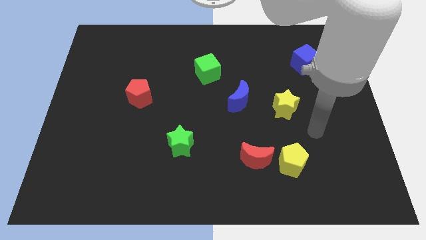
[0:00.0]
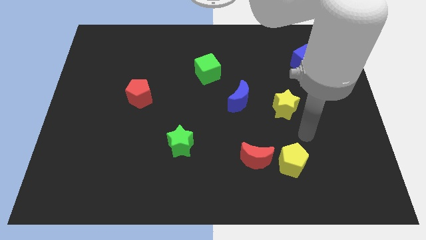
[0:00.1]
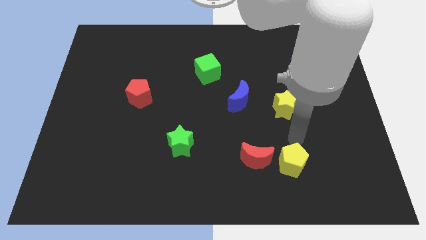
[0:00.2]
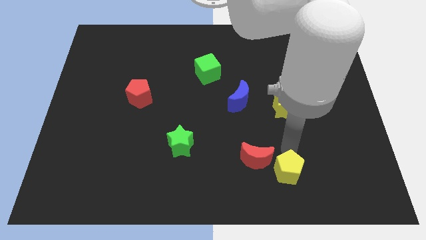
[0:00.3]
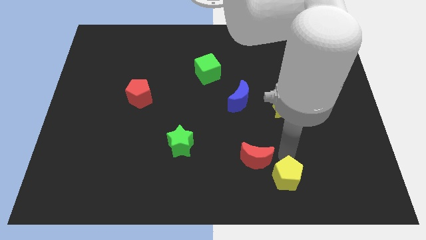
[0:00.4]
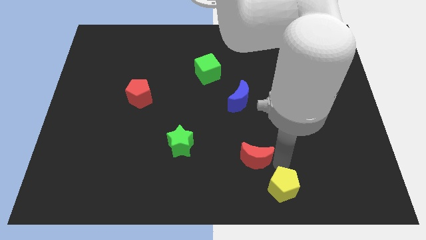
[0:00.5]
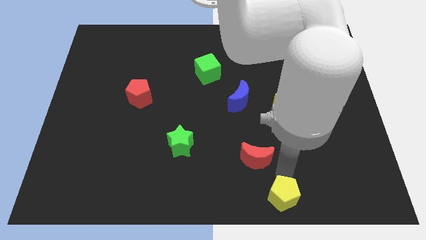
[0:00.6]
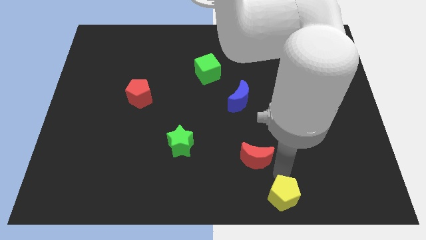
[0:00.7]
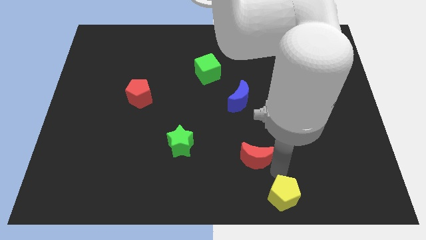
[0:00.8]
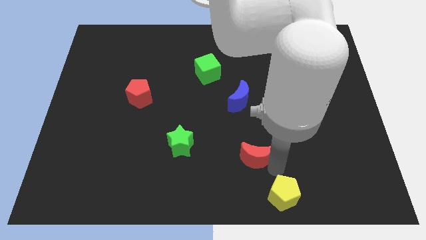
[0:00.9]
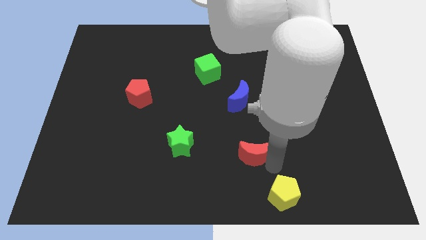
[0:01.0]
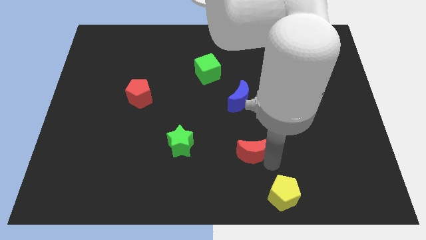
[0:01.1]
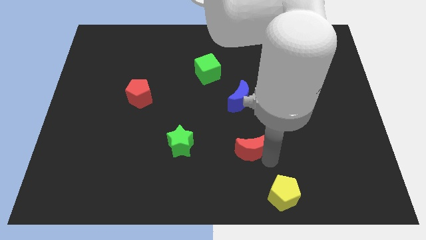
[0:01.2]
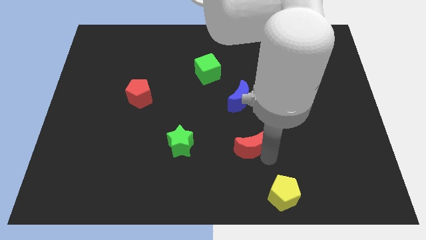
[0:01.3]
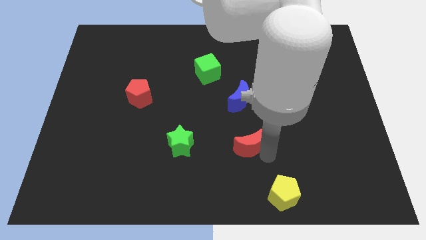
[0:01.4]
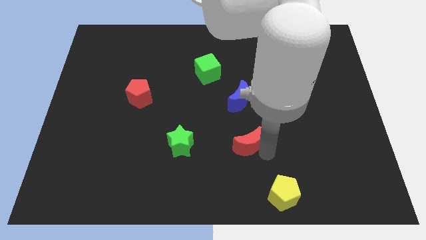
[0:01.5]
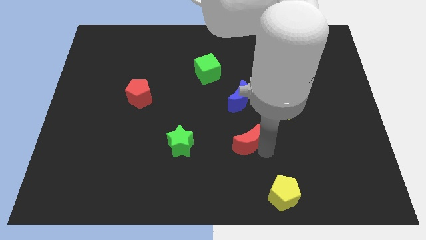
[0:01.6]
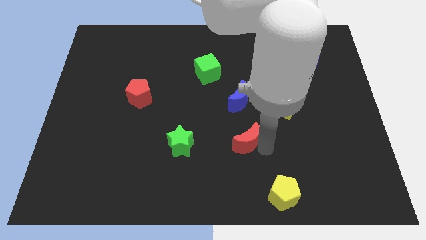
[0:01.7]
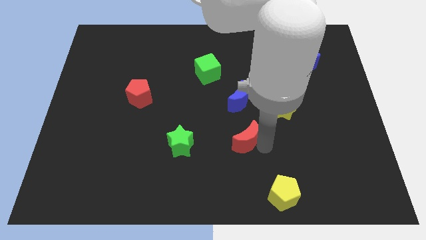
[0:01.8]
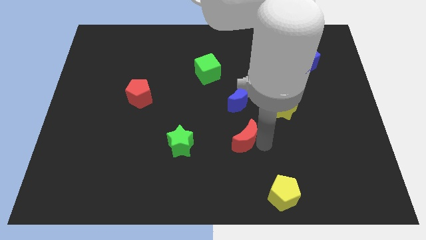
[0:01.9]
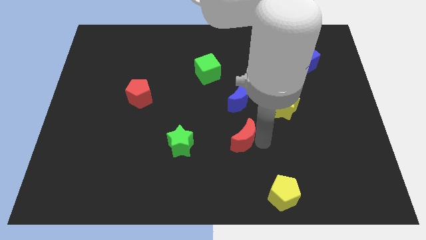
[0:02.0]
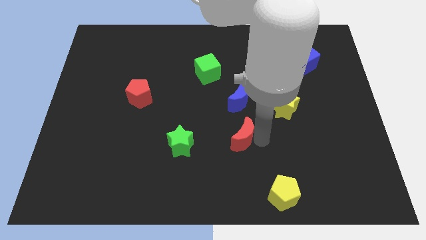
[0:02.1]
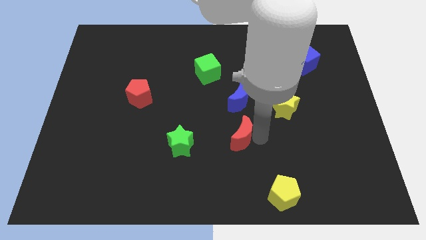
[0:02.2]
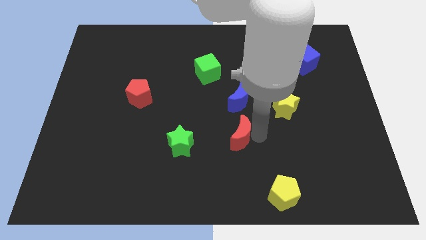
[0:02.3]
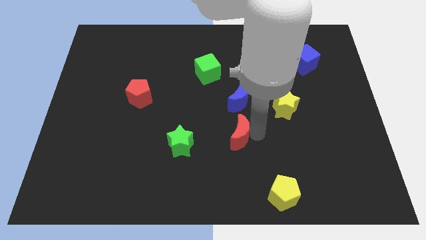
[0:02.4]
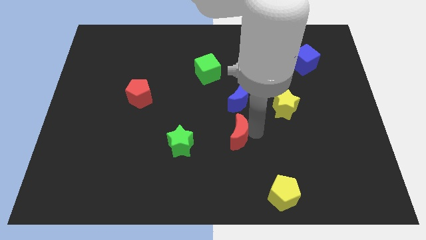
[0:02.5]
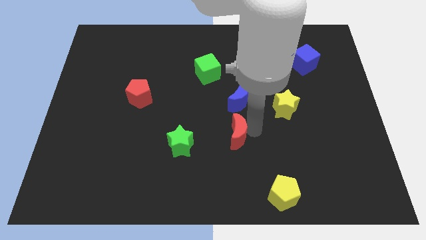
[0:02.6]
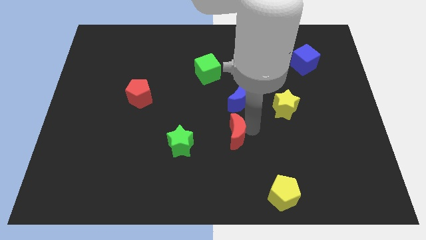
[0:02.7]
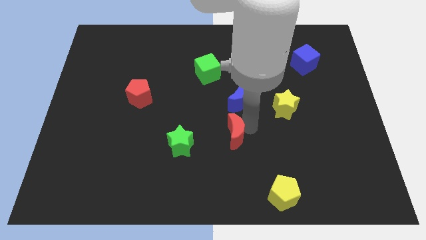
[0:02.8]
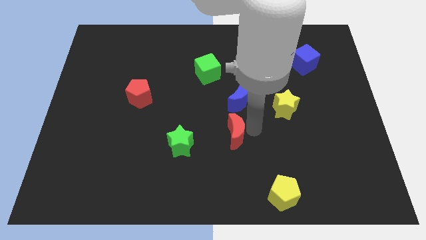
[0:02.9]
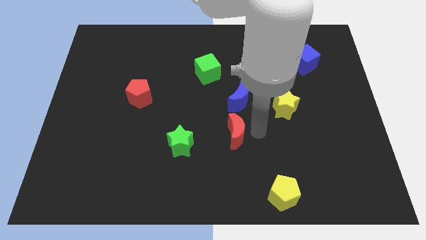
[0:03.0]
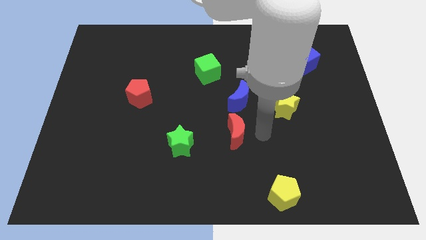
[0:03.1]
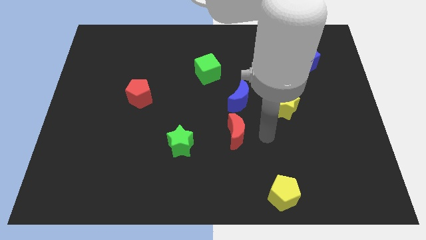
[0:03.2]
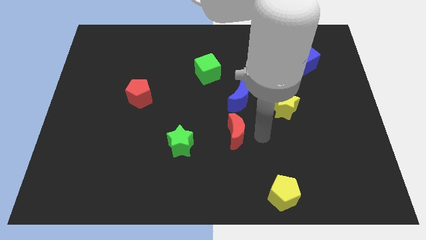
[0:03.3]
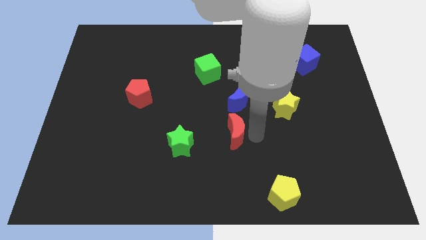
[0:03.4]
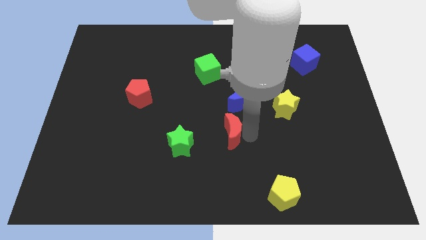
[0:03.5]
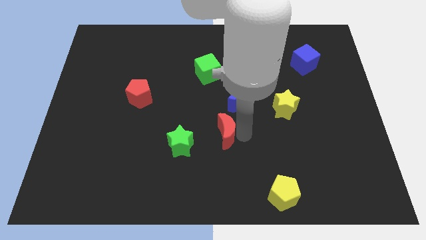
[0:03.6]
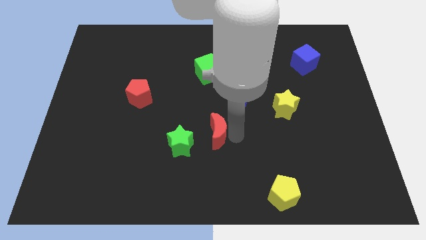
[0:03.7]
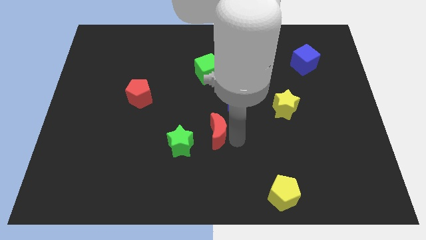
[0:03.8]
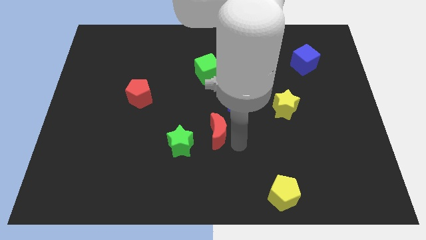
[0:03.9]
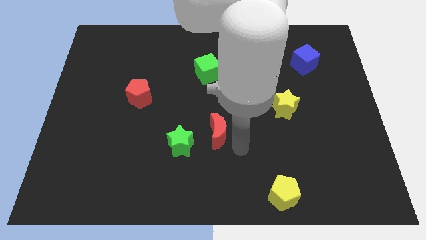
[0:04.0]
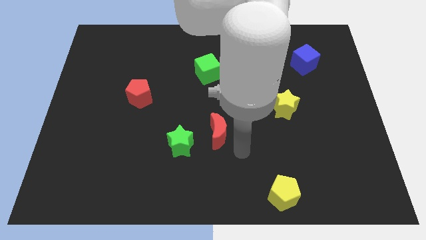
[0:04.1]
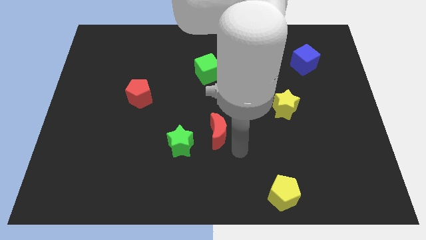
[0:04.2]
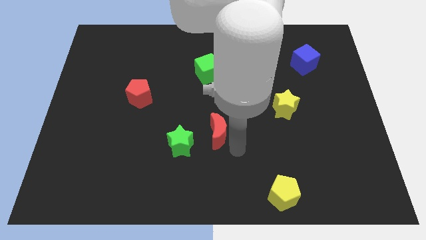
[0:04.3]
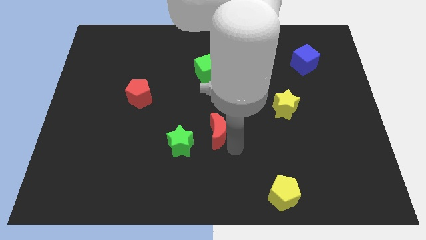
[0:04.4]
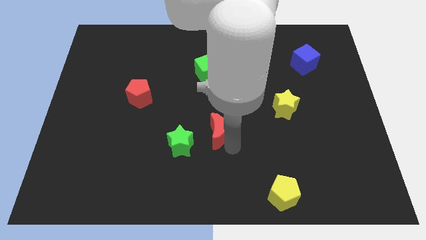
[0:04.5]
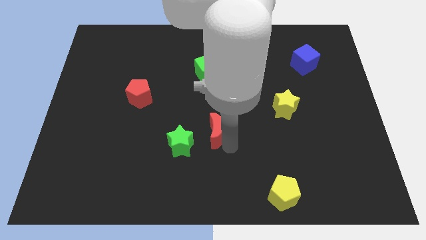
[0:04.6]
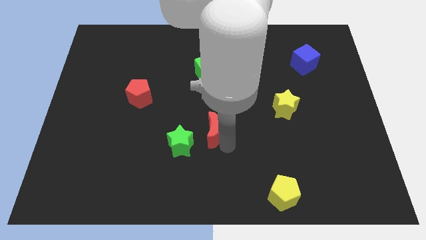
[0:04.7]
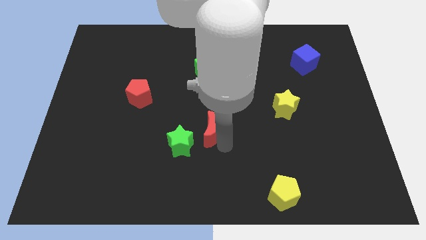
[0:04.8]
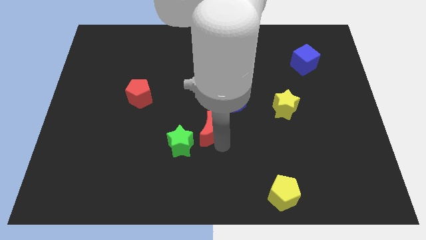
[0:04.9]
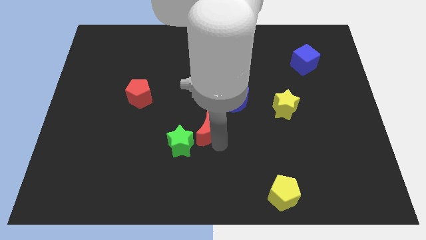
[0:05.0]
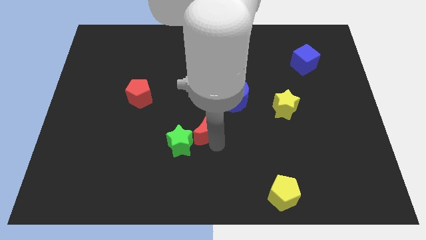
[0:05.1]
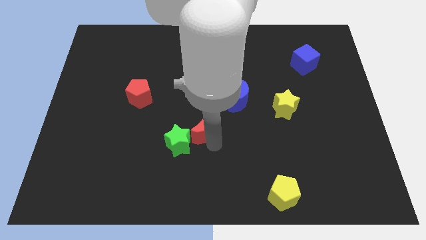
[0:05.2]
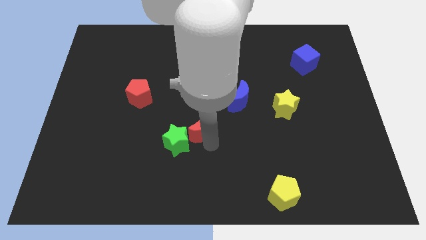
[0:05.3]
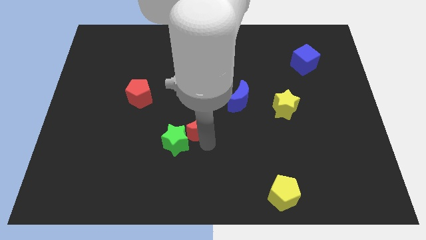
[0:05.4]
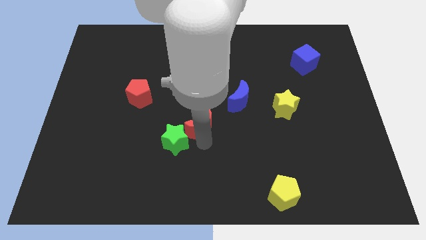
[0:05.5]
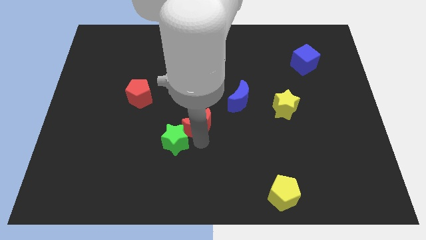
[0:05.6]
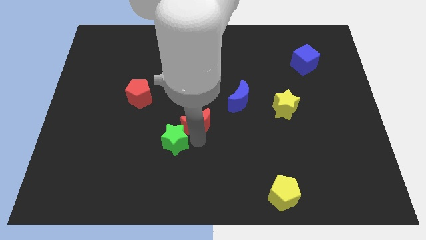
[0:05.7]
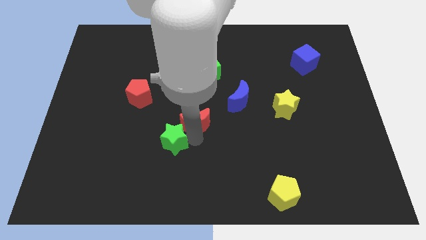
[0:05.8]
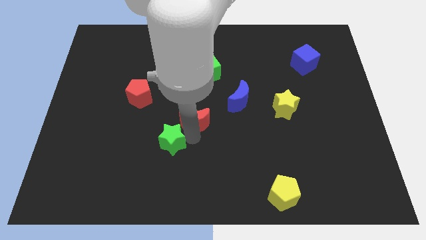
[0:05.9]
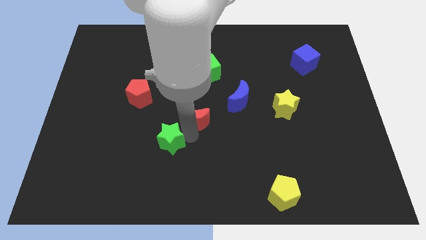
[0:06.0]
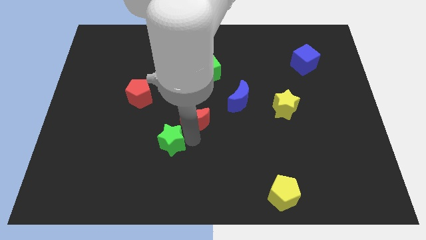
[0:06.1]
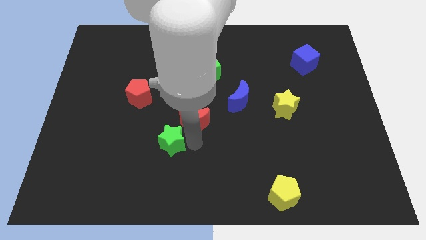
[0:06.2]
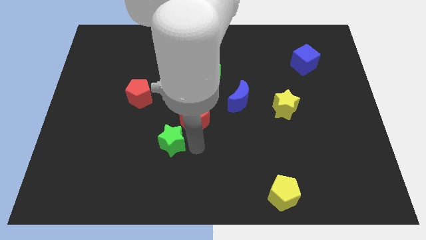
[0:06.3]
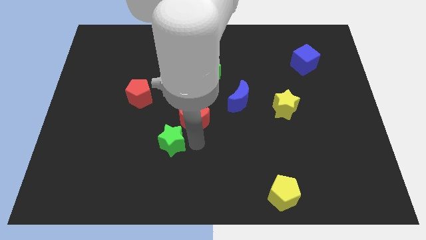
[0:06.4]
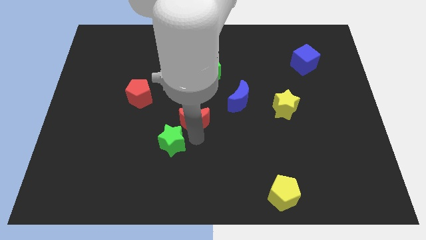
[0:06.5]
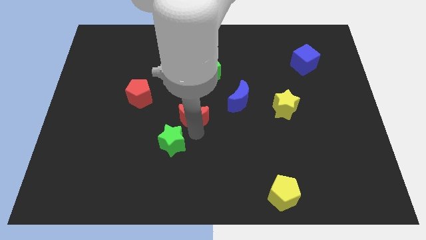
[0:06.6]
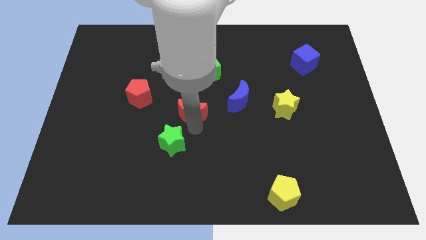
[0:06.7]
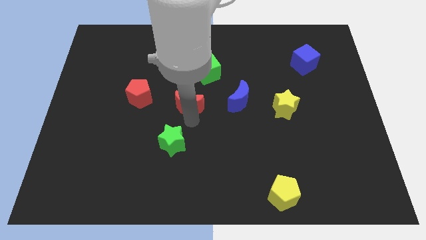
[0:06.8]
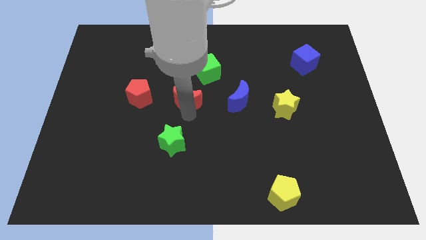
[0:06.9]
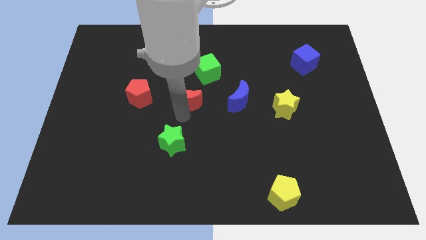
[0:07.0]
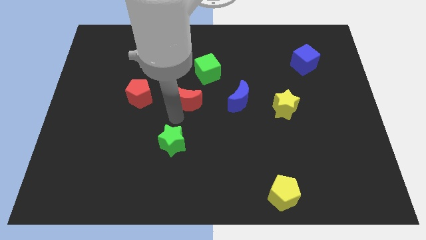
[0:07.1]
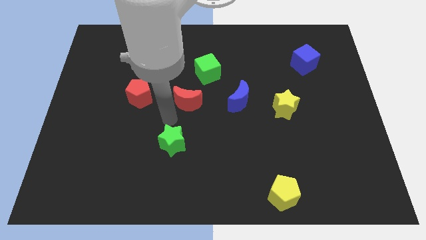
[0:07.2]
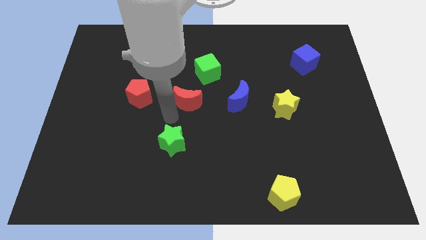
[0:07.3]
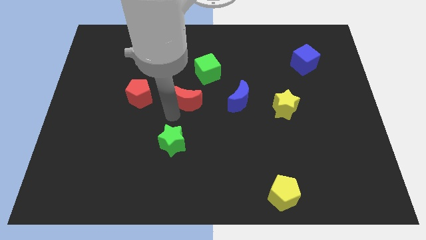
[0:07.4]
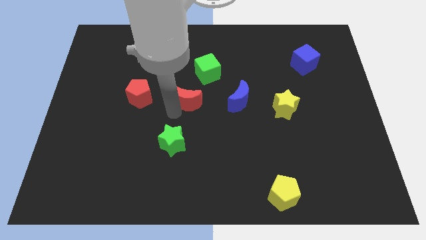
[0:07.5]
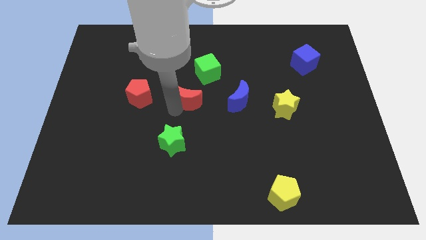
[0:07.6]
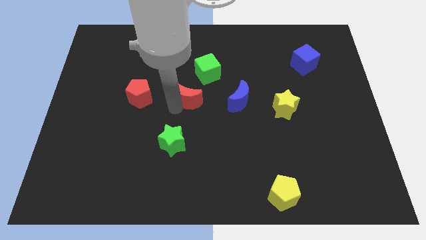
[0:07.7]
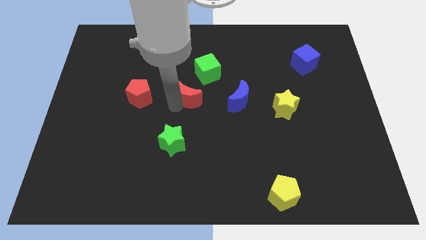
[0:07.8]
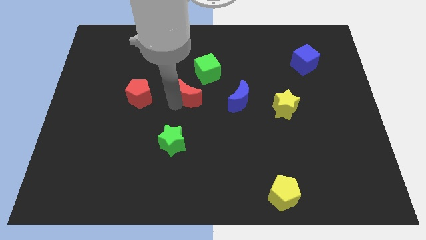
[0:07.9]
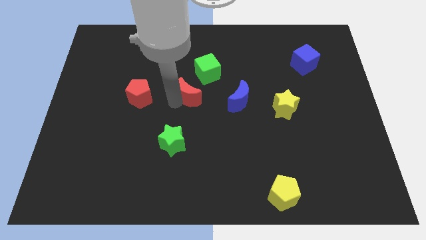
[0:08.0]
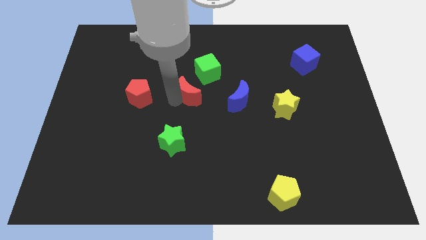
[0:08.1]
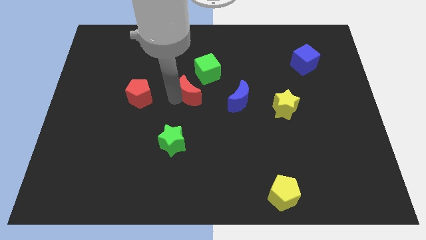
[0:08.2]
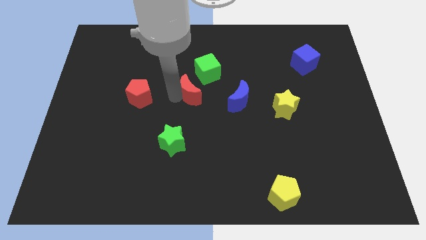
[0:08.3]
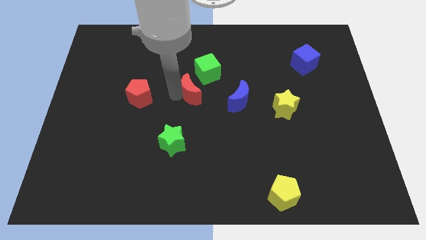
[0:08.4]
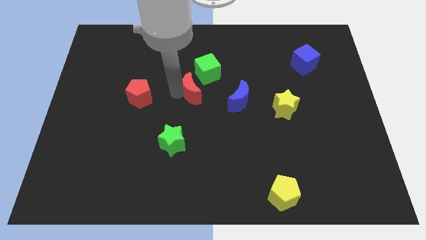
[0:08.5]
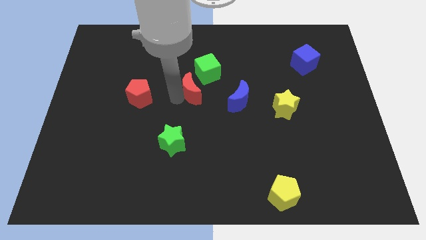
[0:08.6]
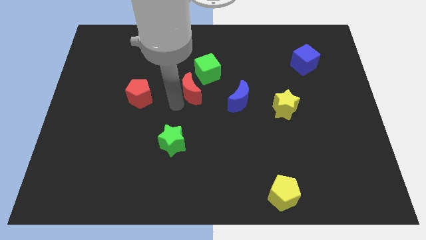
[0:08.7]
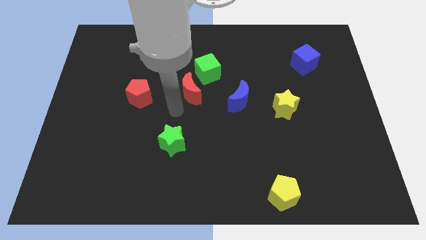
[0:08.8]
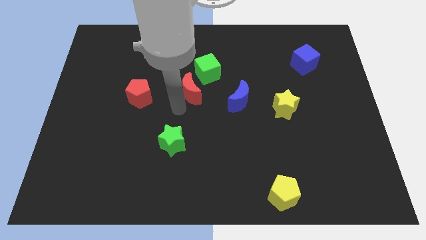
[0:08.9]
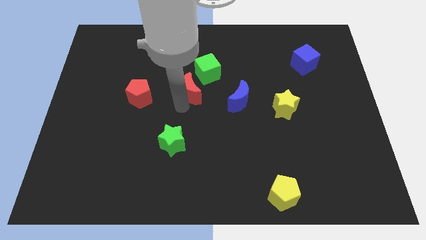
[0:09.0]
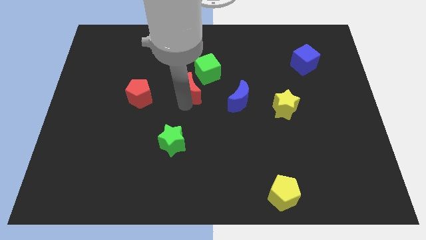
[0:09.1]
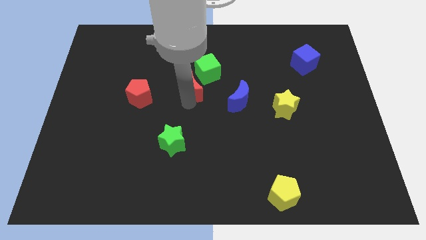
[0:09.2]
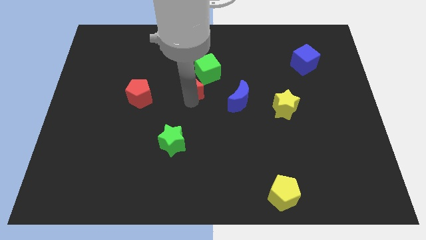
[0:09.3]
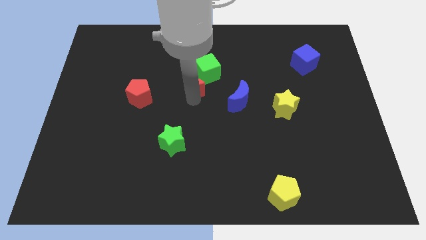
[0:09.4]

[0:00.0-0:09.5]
move the red moon to the green cube
